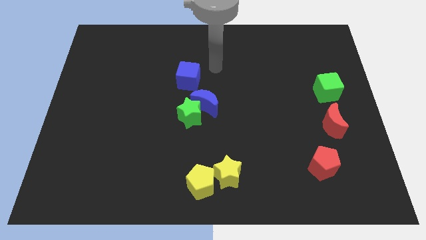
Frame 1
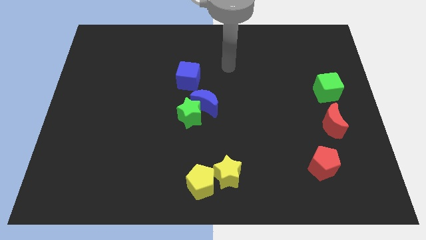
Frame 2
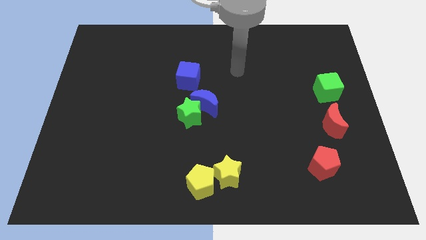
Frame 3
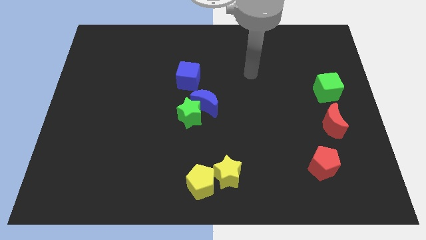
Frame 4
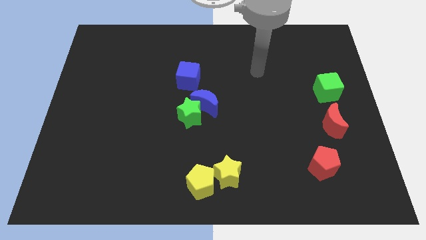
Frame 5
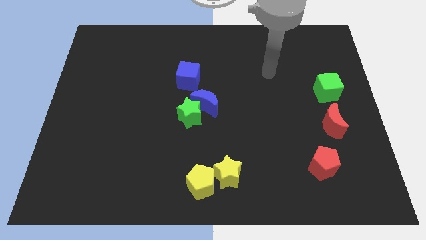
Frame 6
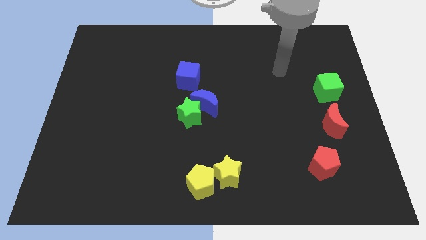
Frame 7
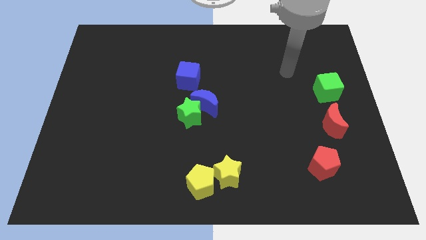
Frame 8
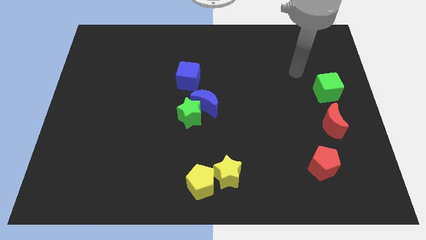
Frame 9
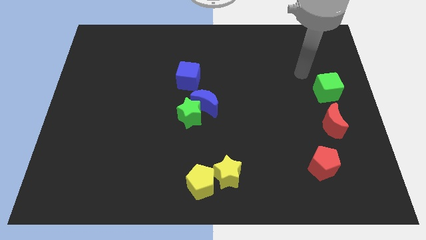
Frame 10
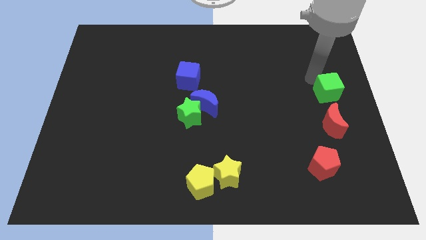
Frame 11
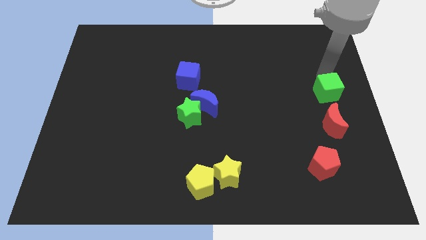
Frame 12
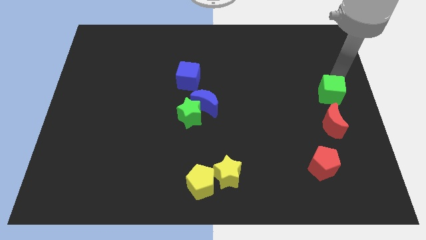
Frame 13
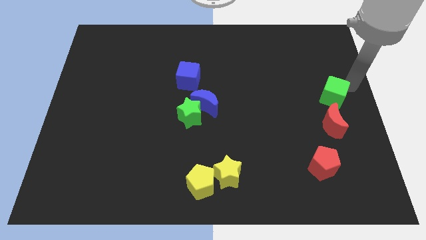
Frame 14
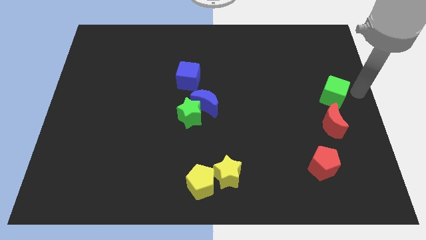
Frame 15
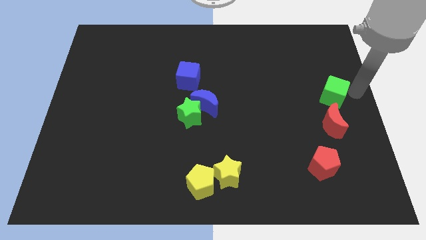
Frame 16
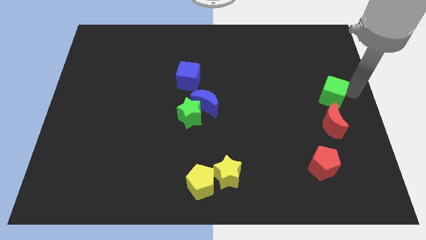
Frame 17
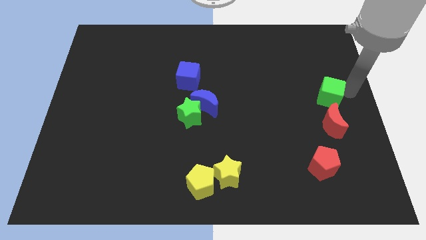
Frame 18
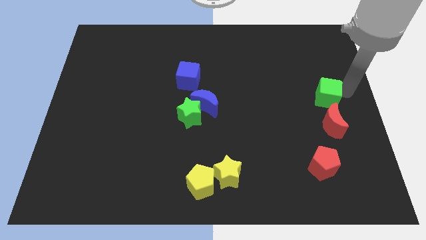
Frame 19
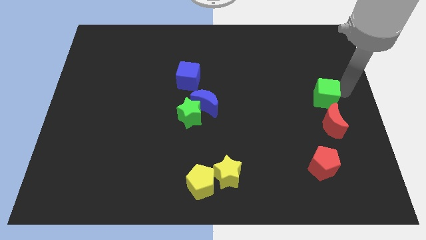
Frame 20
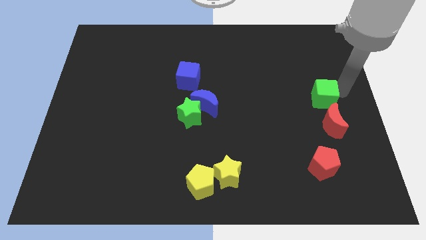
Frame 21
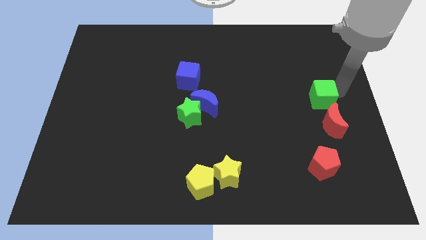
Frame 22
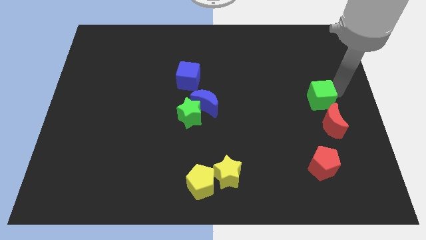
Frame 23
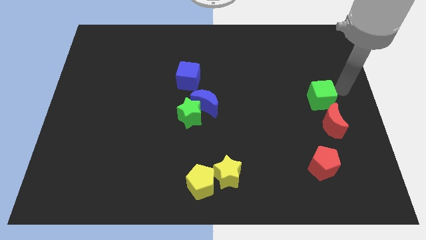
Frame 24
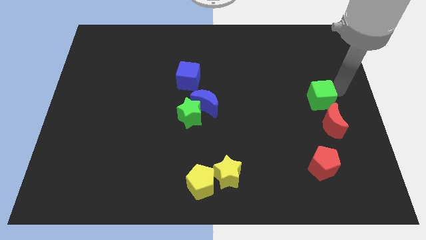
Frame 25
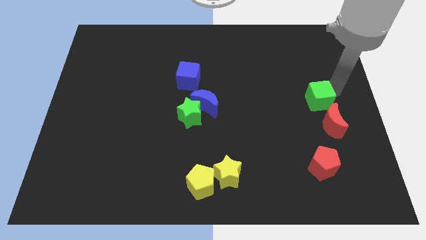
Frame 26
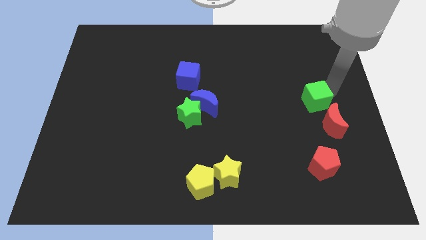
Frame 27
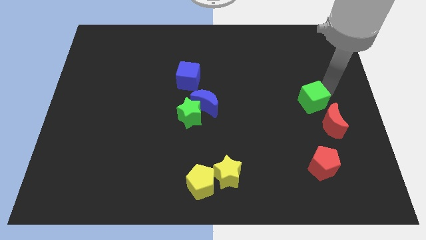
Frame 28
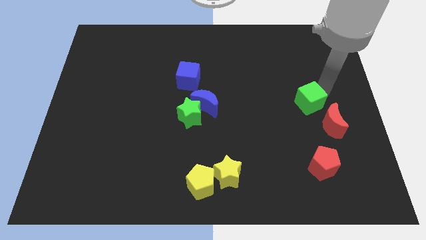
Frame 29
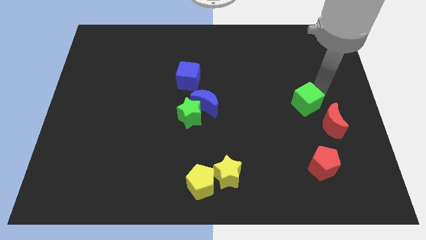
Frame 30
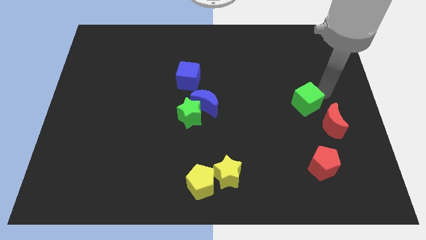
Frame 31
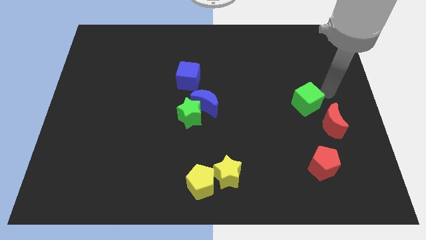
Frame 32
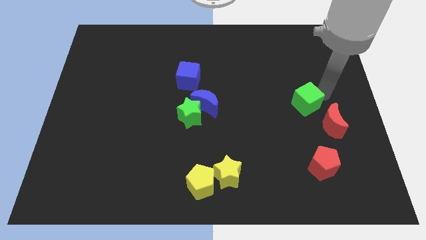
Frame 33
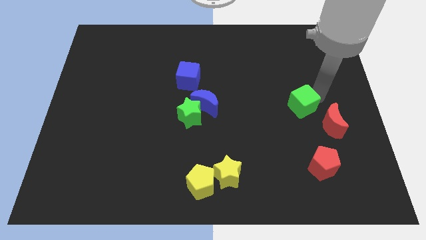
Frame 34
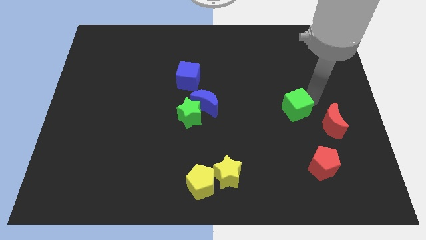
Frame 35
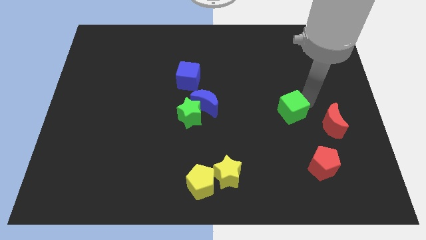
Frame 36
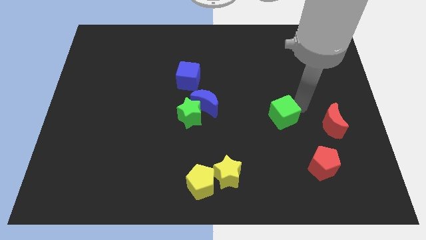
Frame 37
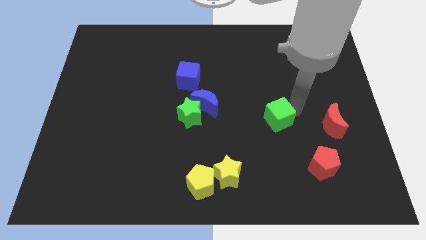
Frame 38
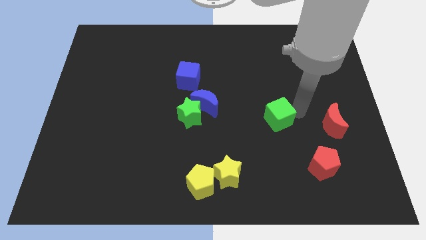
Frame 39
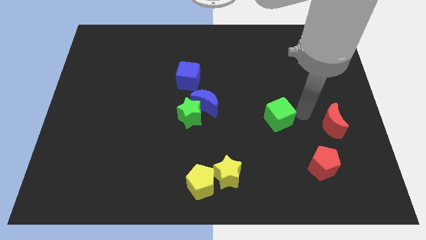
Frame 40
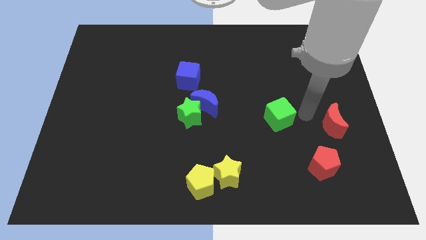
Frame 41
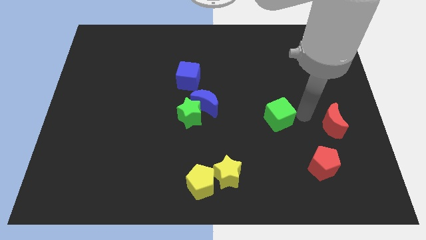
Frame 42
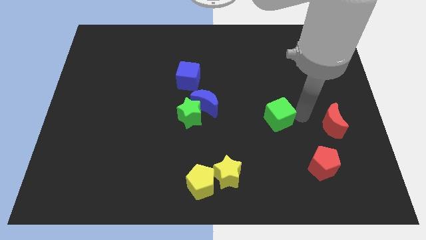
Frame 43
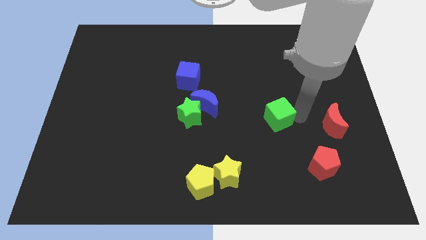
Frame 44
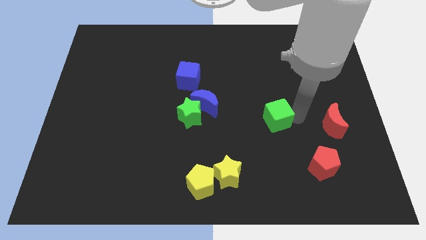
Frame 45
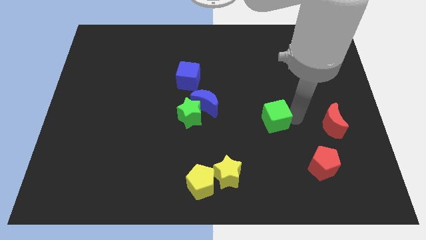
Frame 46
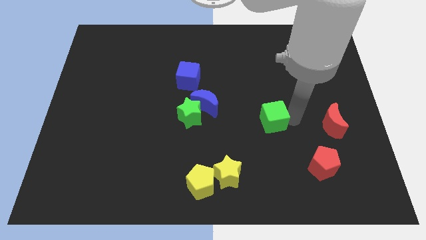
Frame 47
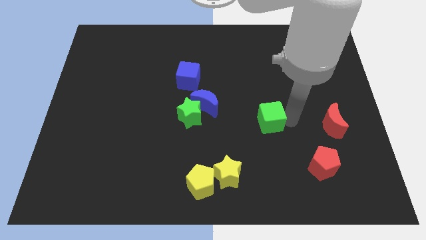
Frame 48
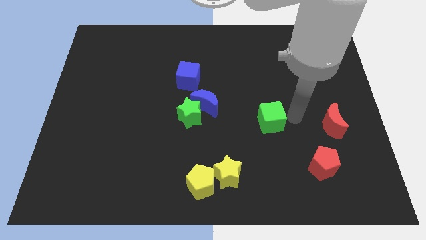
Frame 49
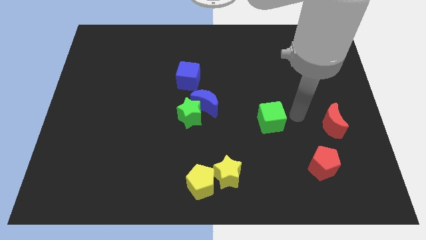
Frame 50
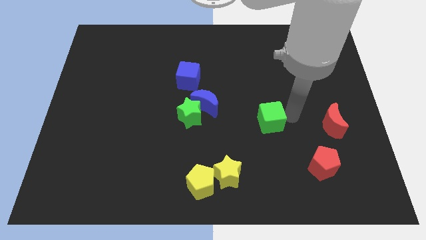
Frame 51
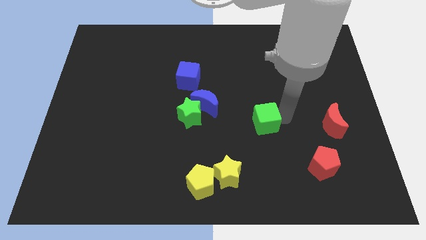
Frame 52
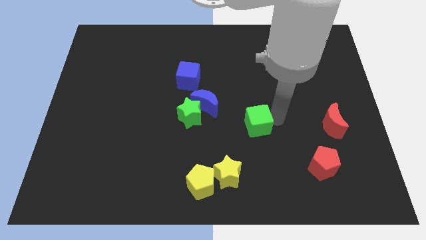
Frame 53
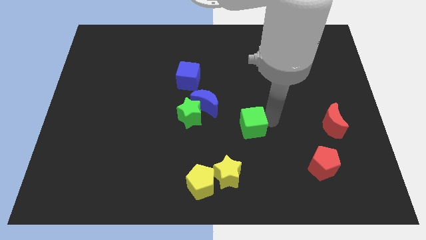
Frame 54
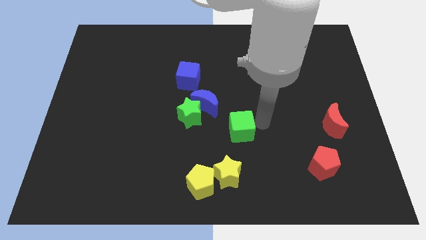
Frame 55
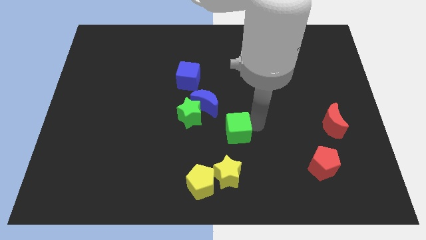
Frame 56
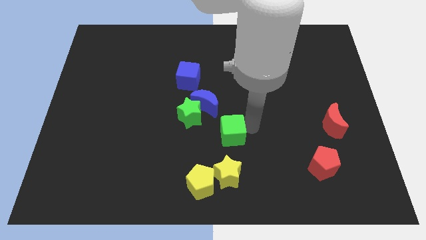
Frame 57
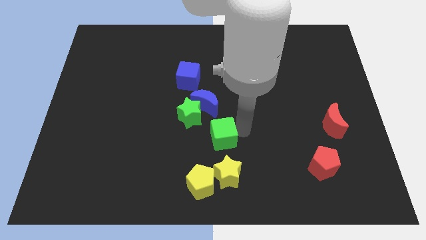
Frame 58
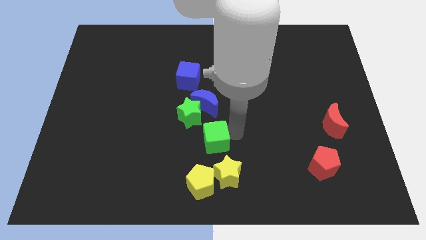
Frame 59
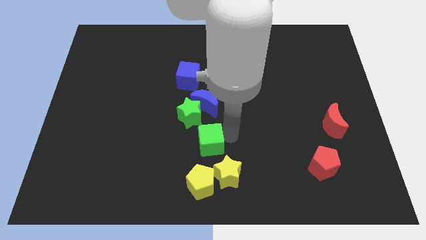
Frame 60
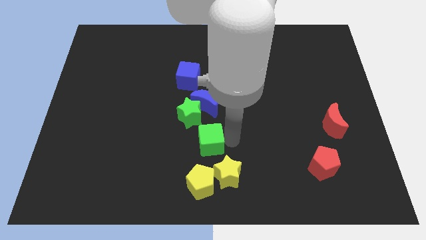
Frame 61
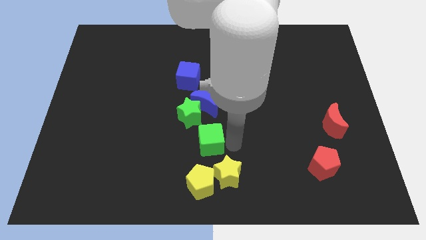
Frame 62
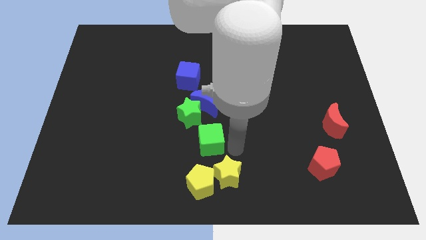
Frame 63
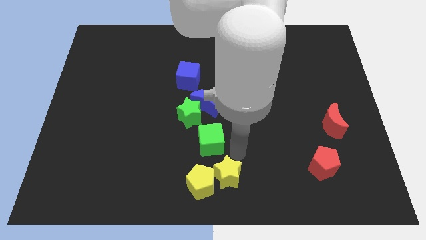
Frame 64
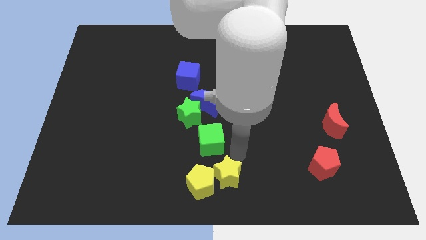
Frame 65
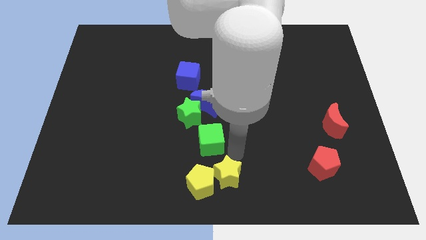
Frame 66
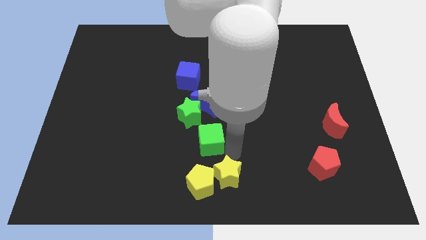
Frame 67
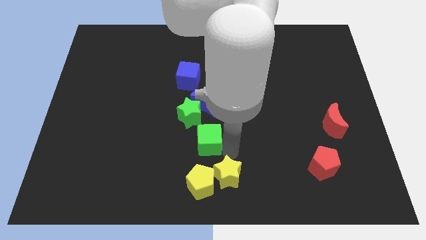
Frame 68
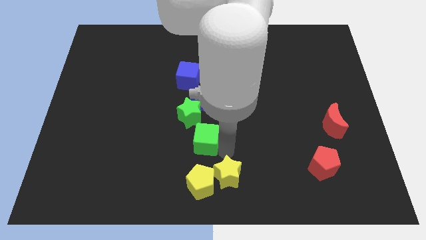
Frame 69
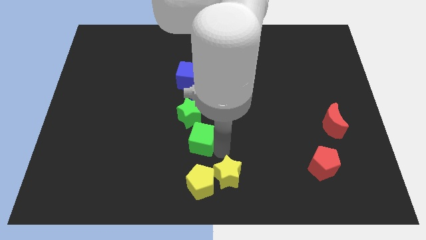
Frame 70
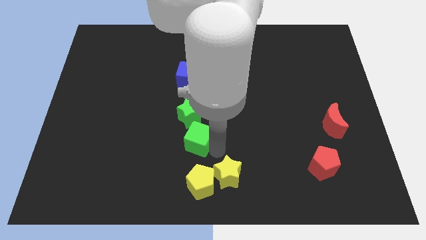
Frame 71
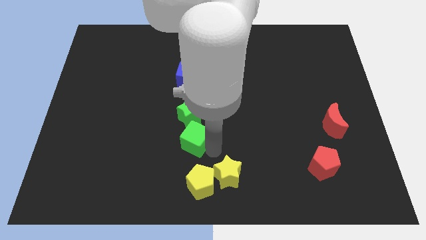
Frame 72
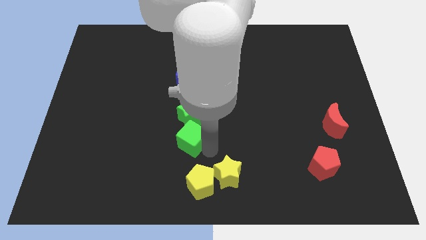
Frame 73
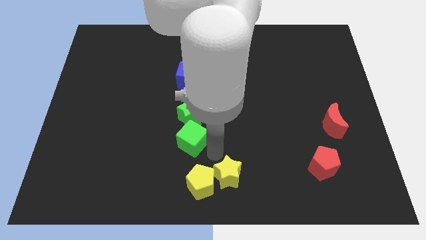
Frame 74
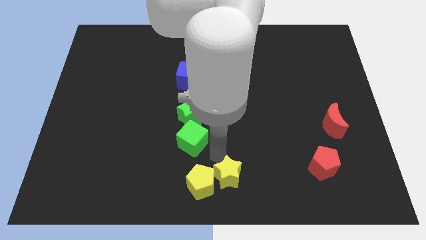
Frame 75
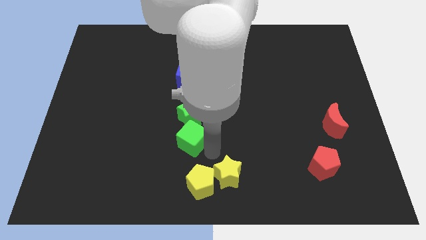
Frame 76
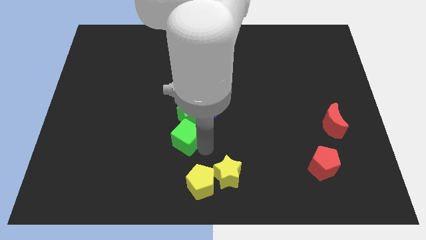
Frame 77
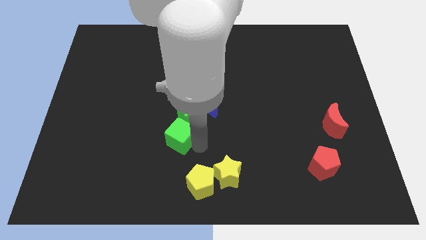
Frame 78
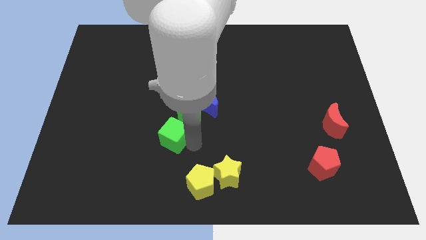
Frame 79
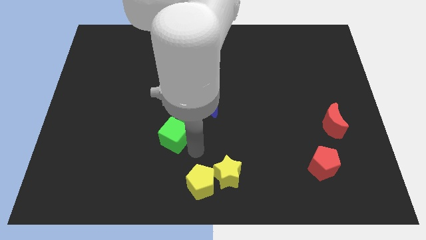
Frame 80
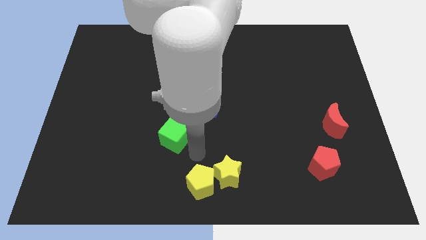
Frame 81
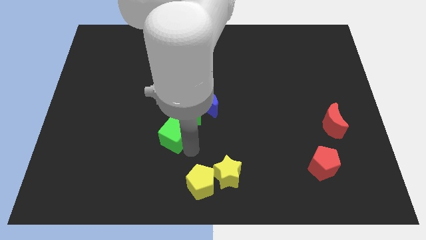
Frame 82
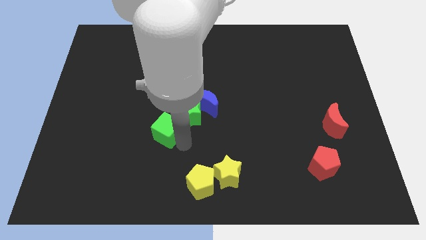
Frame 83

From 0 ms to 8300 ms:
move the green cube to the left of the green star
